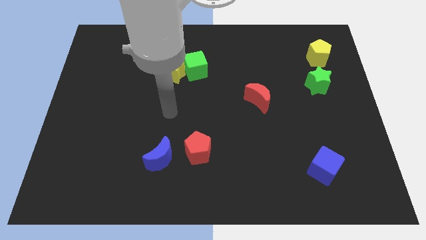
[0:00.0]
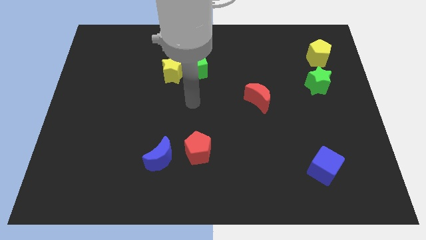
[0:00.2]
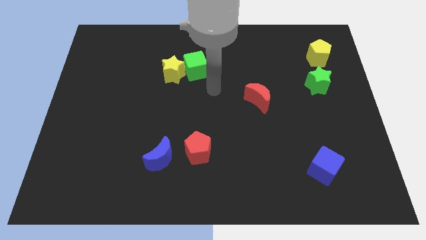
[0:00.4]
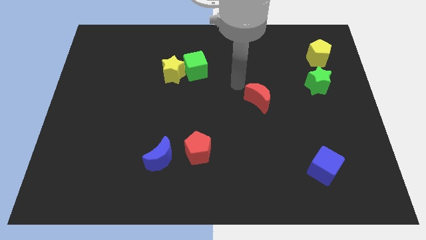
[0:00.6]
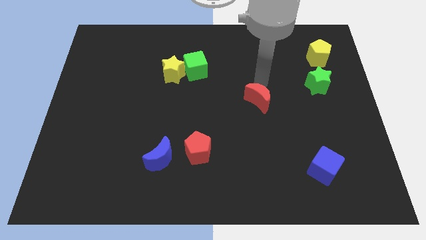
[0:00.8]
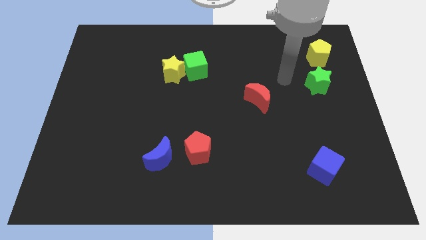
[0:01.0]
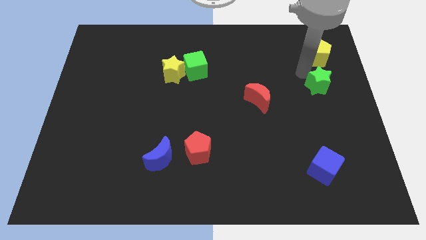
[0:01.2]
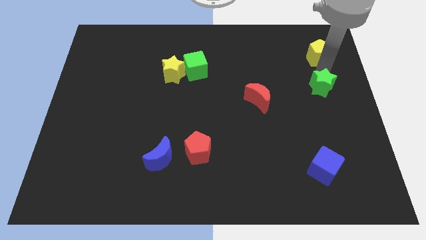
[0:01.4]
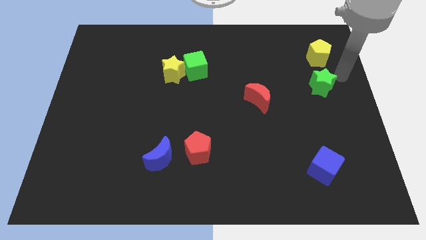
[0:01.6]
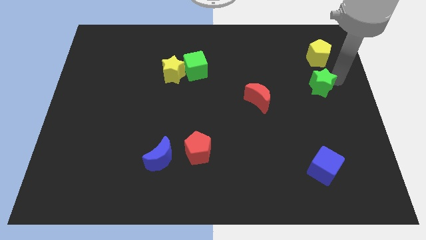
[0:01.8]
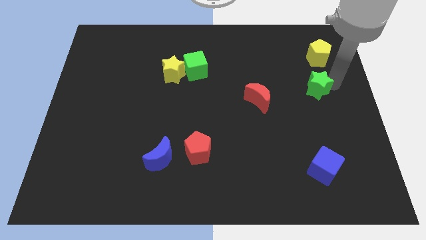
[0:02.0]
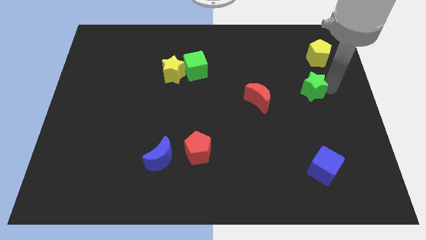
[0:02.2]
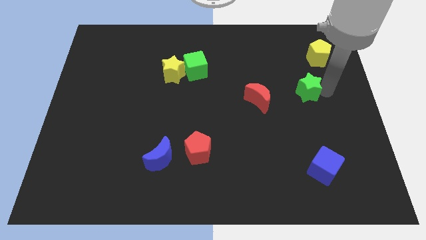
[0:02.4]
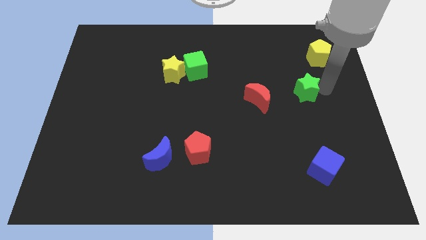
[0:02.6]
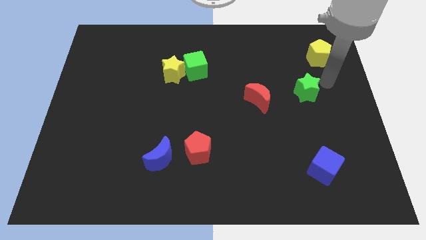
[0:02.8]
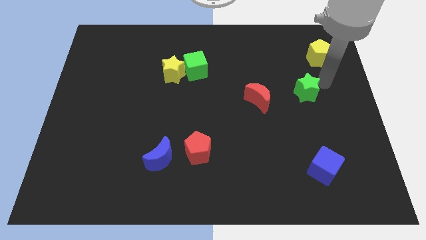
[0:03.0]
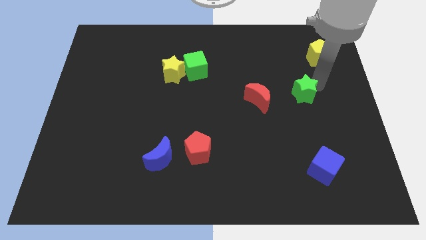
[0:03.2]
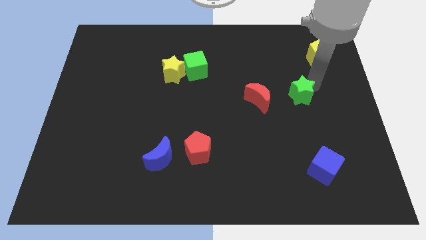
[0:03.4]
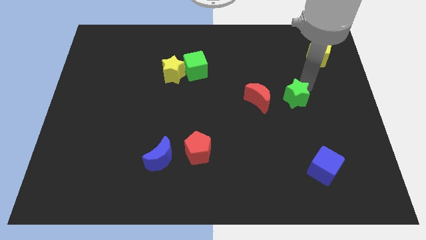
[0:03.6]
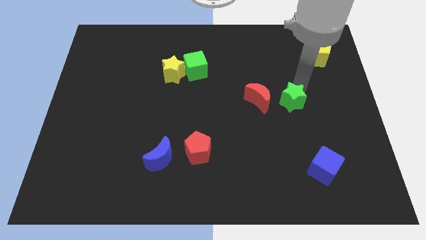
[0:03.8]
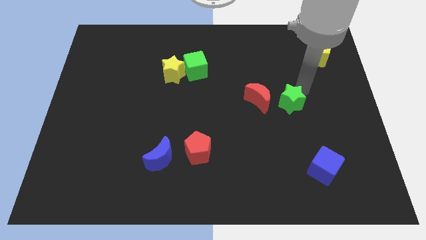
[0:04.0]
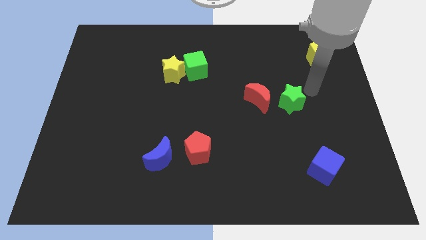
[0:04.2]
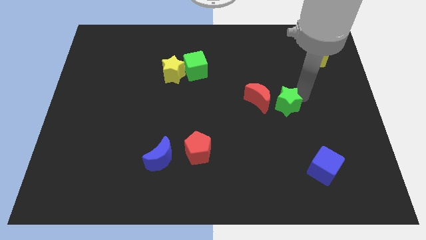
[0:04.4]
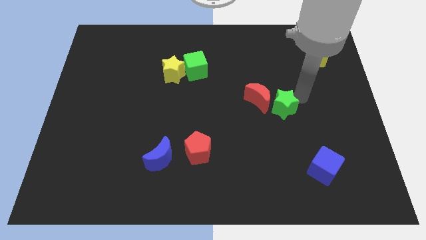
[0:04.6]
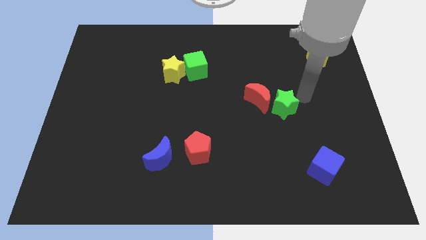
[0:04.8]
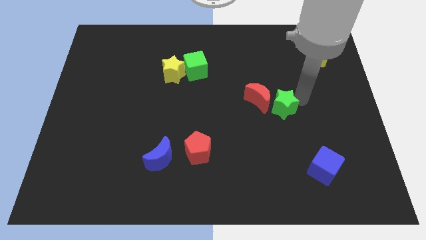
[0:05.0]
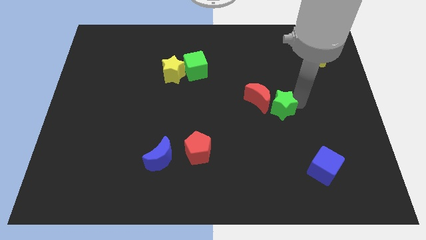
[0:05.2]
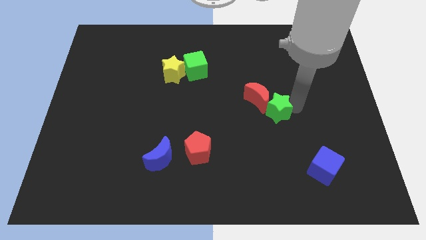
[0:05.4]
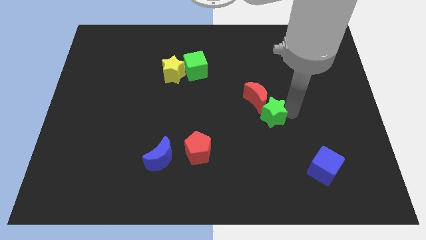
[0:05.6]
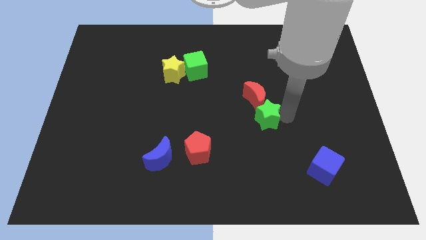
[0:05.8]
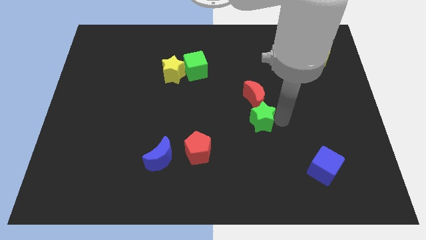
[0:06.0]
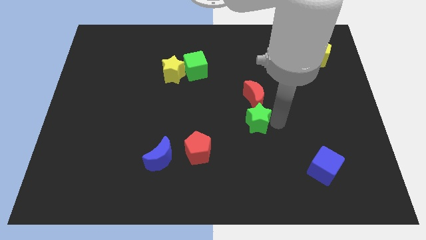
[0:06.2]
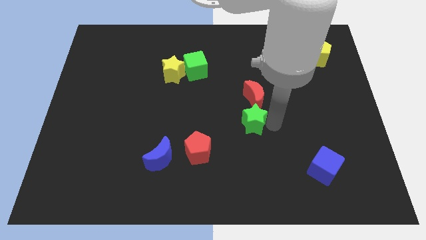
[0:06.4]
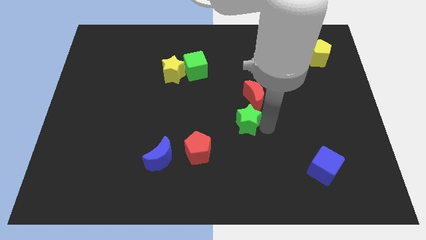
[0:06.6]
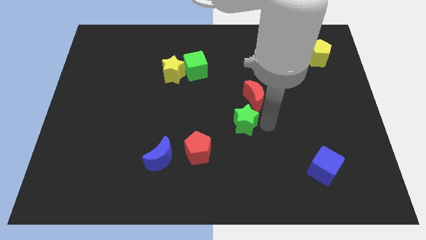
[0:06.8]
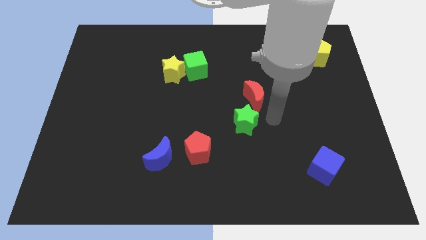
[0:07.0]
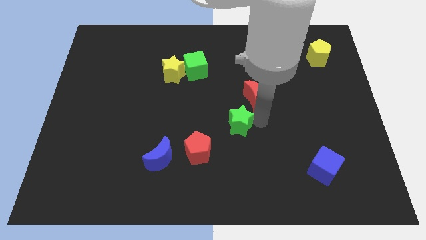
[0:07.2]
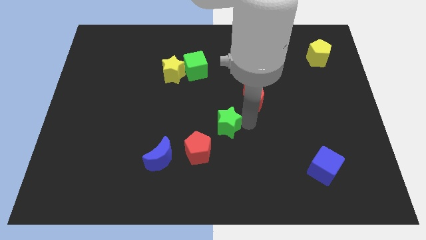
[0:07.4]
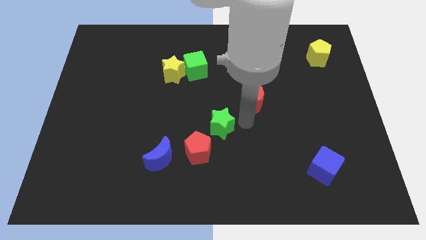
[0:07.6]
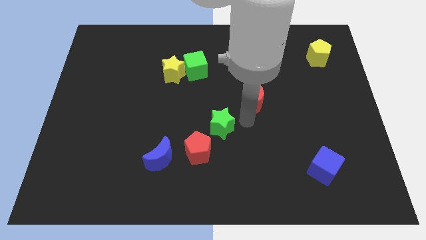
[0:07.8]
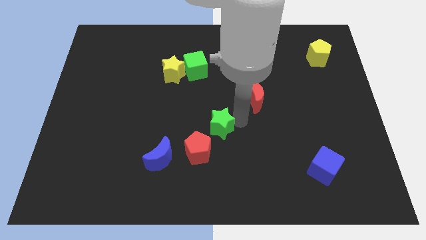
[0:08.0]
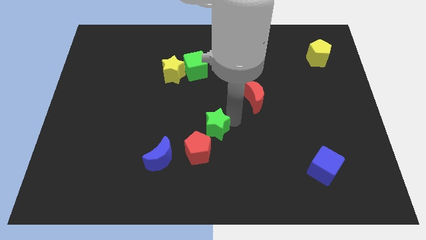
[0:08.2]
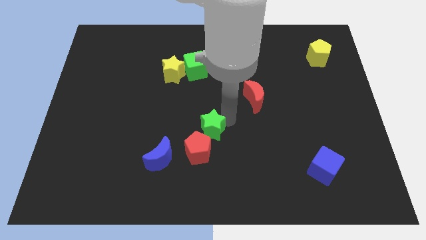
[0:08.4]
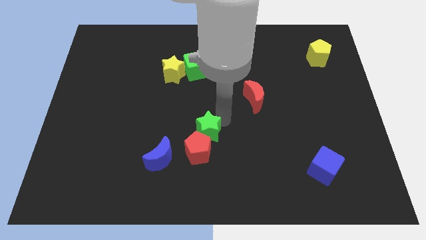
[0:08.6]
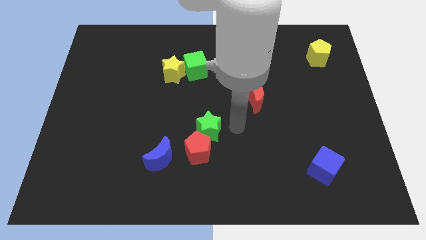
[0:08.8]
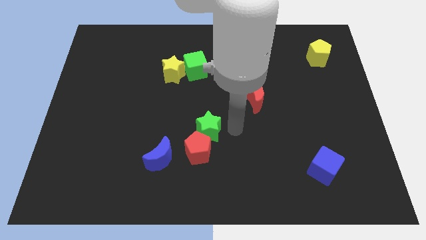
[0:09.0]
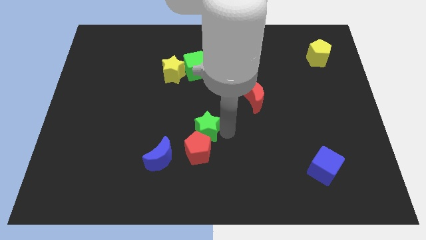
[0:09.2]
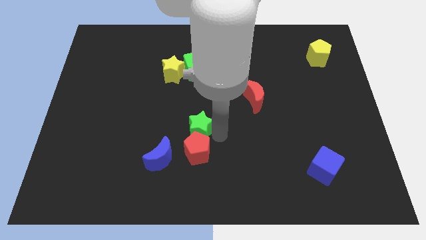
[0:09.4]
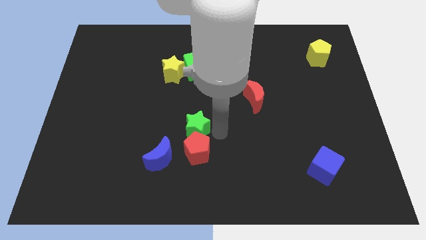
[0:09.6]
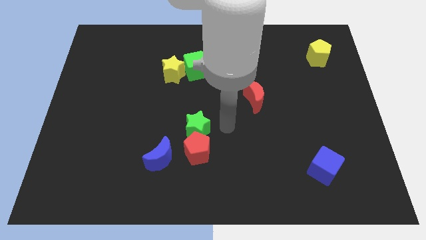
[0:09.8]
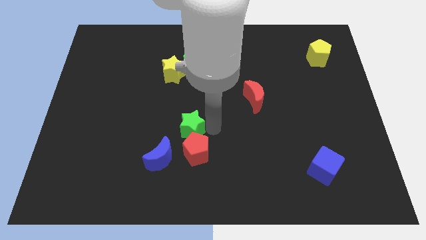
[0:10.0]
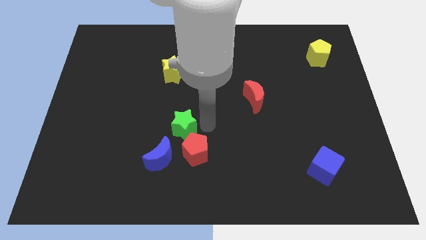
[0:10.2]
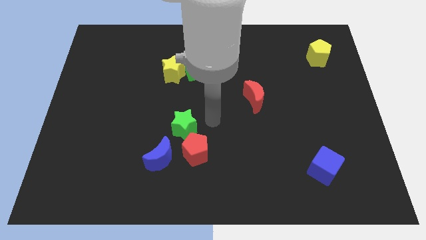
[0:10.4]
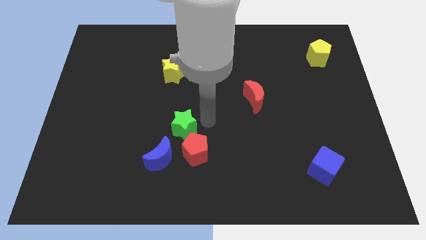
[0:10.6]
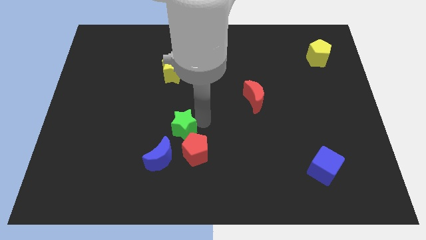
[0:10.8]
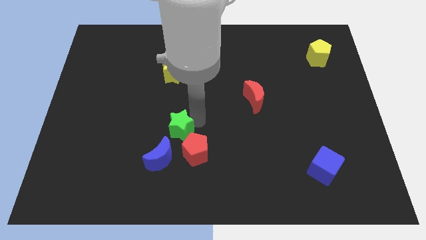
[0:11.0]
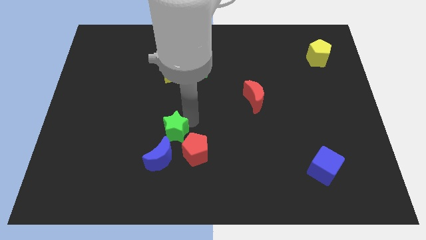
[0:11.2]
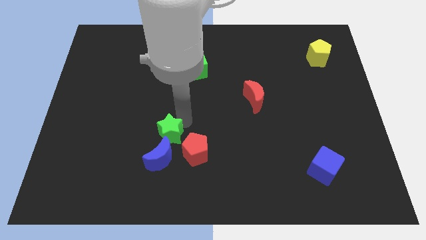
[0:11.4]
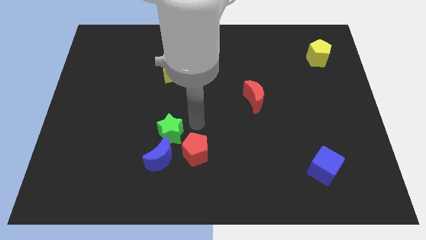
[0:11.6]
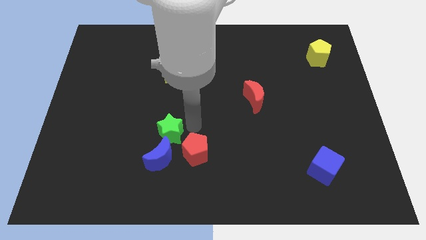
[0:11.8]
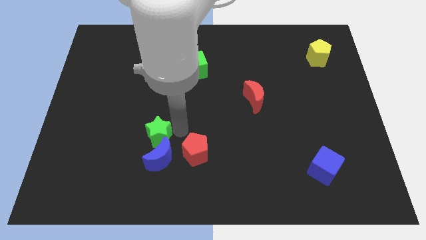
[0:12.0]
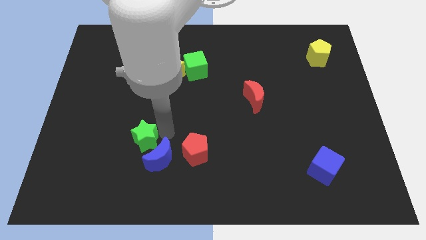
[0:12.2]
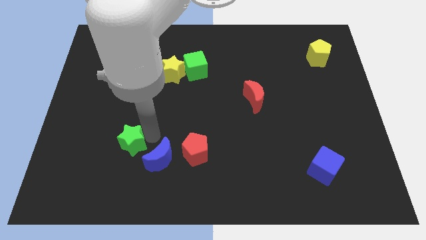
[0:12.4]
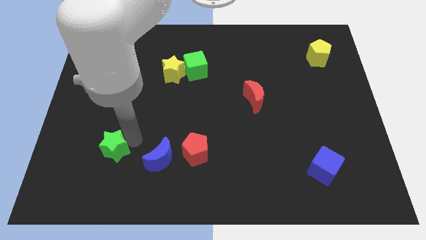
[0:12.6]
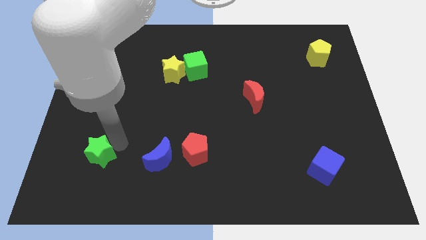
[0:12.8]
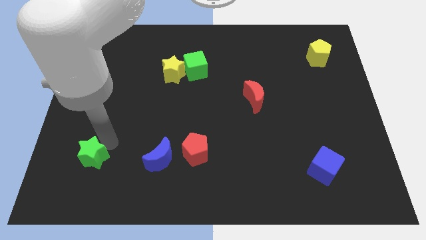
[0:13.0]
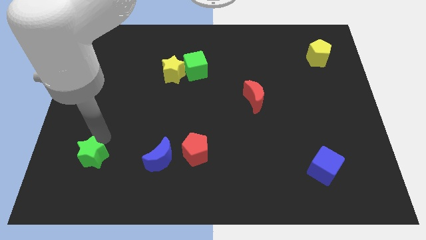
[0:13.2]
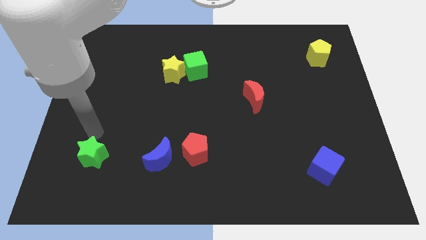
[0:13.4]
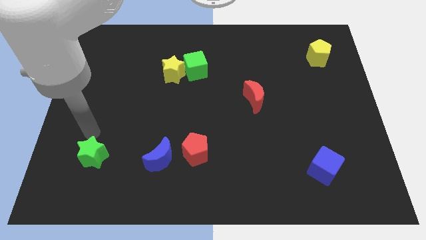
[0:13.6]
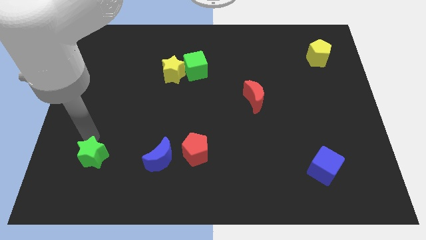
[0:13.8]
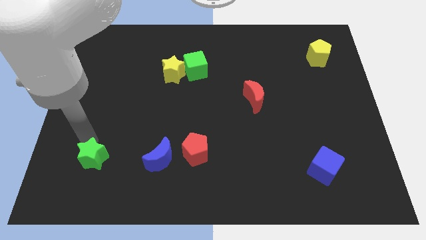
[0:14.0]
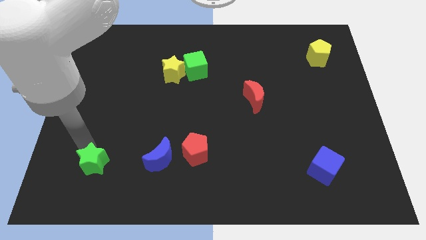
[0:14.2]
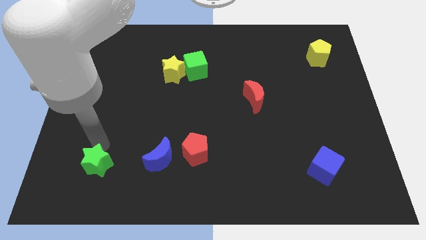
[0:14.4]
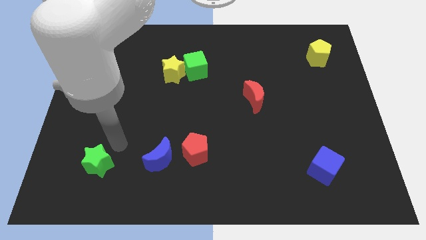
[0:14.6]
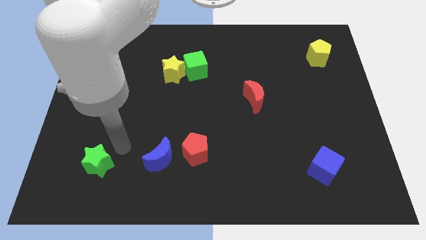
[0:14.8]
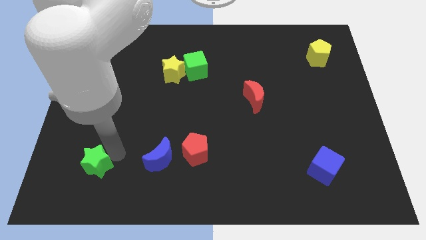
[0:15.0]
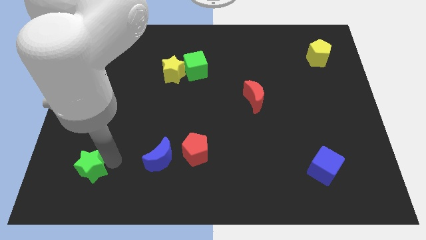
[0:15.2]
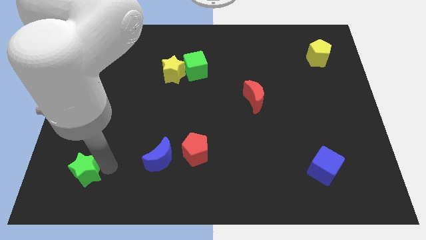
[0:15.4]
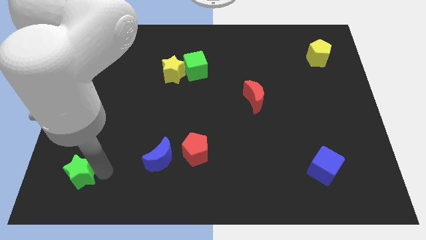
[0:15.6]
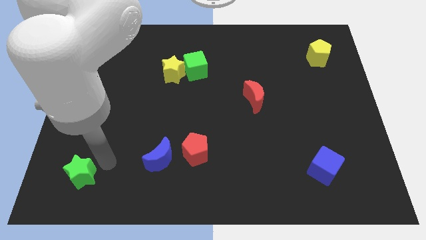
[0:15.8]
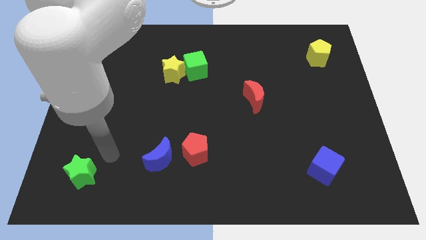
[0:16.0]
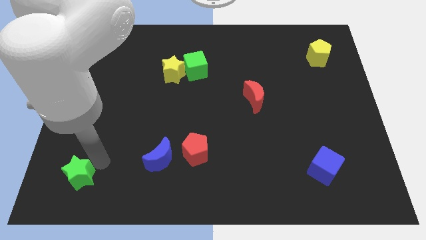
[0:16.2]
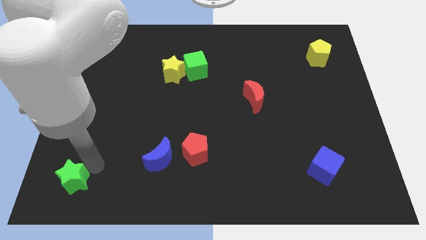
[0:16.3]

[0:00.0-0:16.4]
move the green star to the bottom left corner
